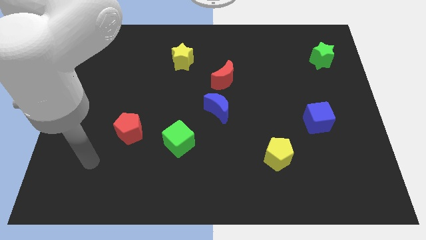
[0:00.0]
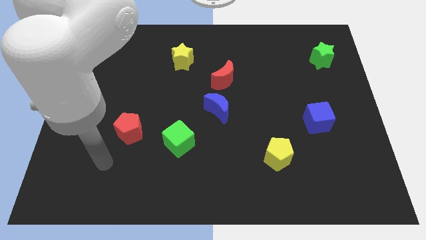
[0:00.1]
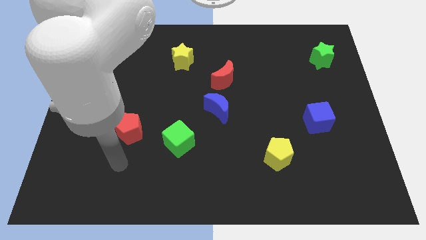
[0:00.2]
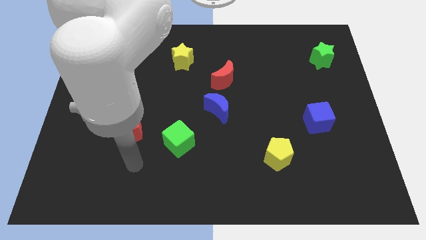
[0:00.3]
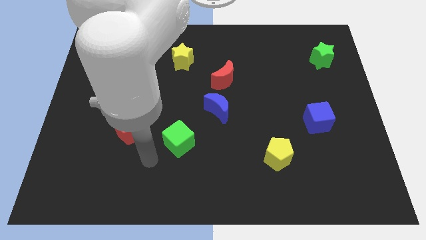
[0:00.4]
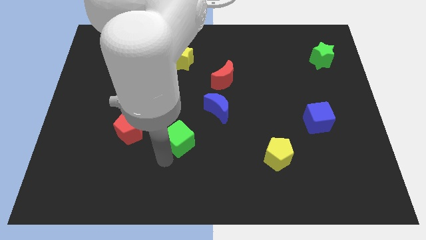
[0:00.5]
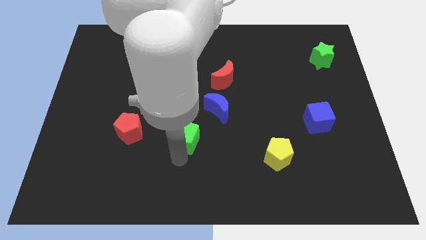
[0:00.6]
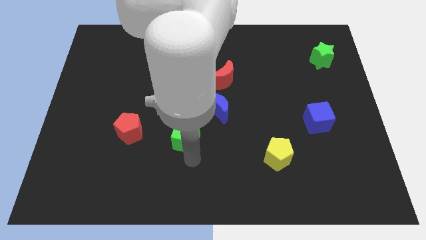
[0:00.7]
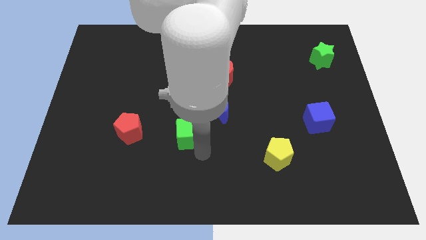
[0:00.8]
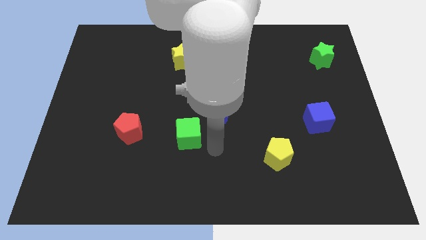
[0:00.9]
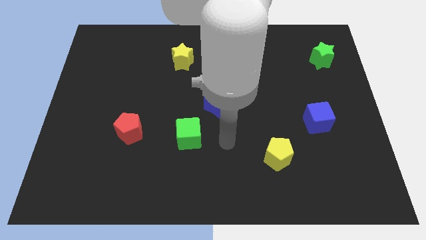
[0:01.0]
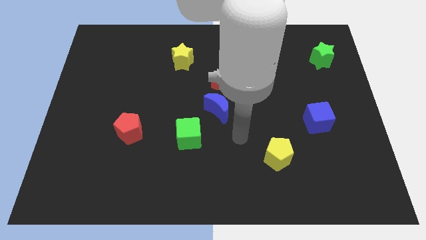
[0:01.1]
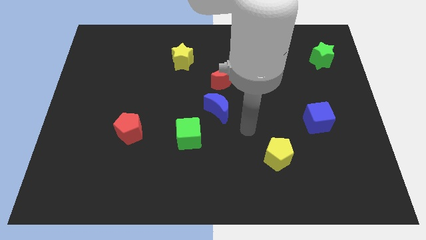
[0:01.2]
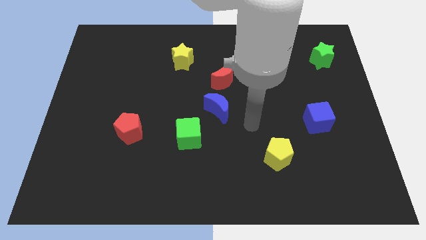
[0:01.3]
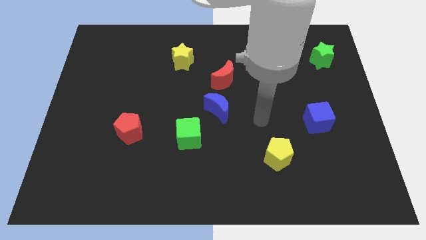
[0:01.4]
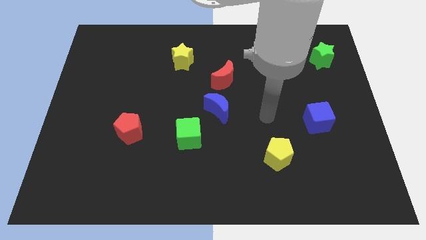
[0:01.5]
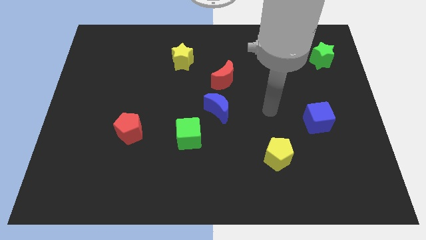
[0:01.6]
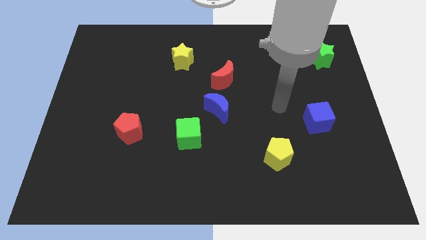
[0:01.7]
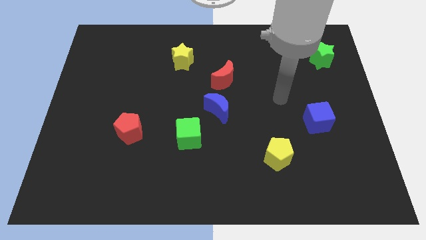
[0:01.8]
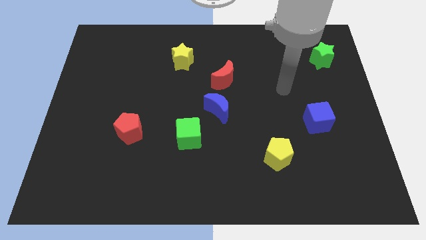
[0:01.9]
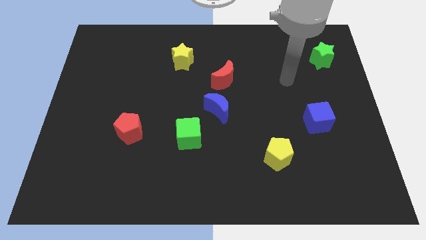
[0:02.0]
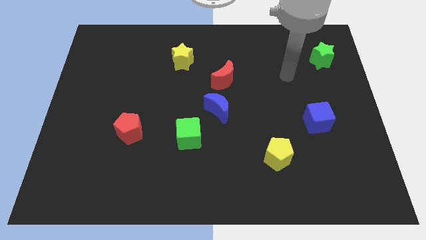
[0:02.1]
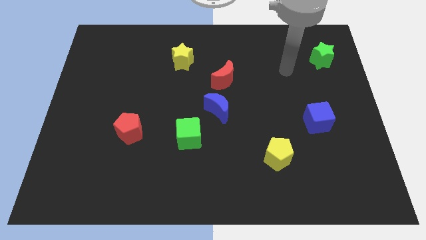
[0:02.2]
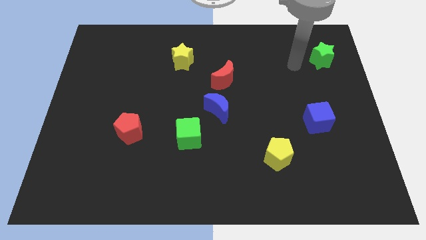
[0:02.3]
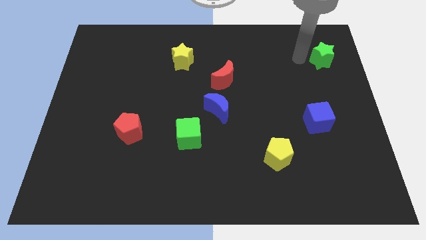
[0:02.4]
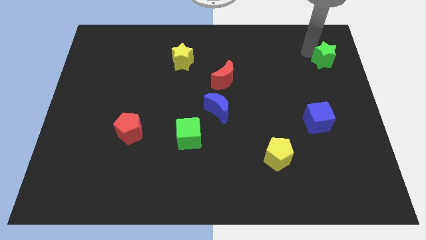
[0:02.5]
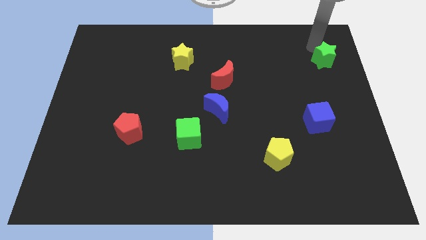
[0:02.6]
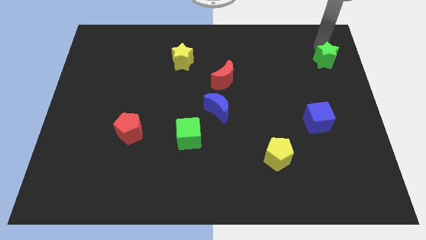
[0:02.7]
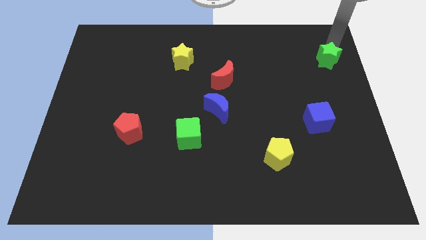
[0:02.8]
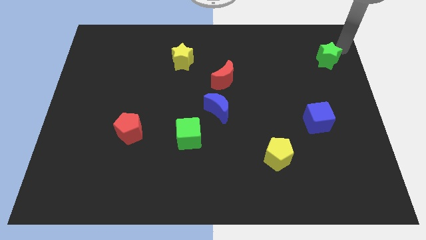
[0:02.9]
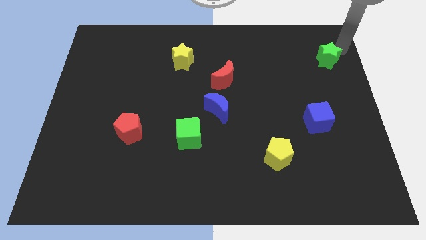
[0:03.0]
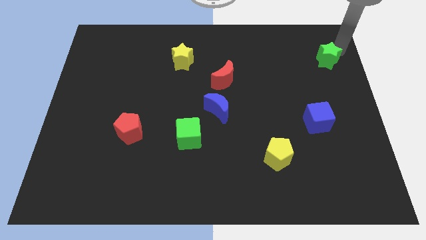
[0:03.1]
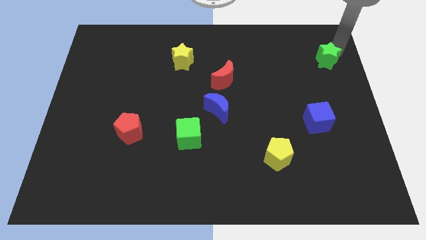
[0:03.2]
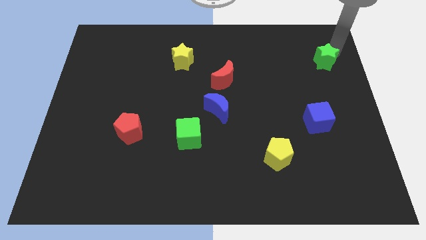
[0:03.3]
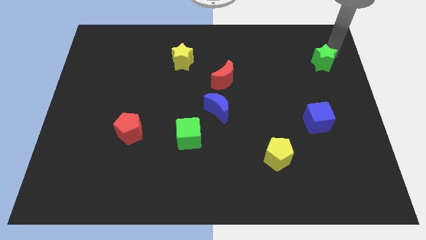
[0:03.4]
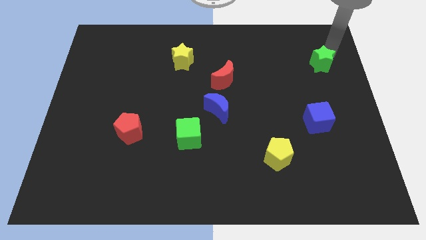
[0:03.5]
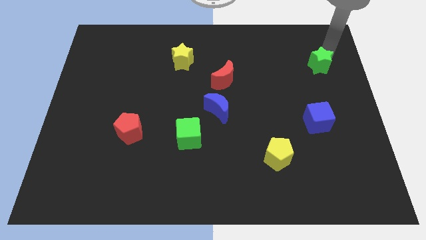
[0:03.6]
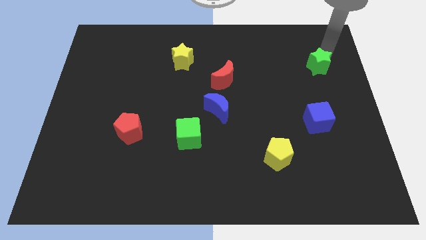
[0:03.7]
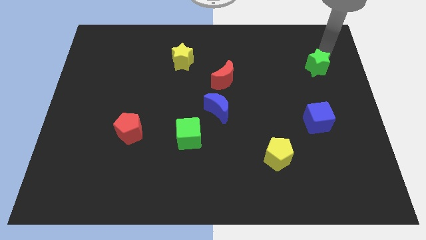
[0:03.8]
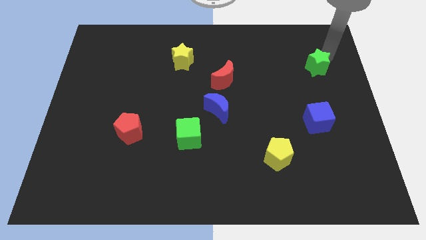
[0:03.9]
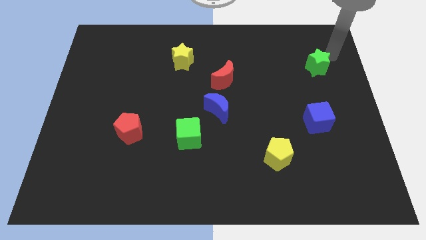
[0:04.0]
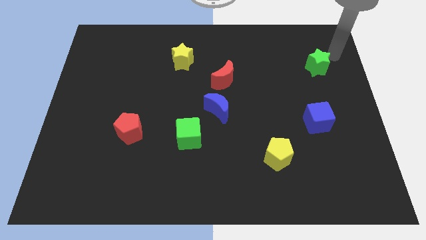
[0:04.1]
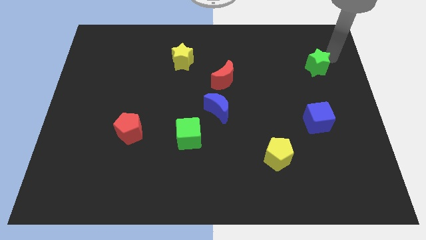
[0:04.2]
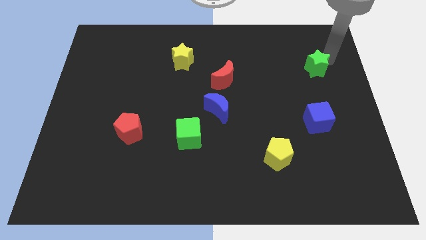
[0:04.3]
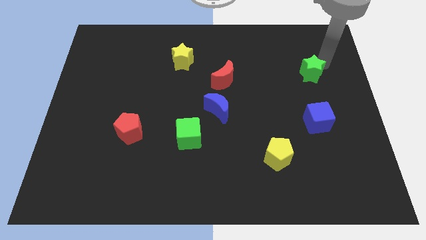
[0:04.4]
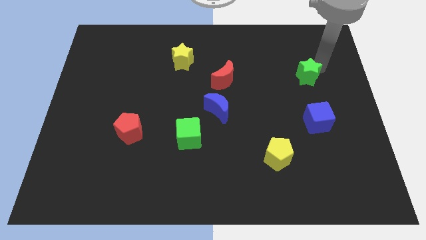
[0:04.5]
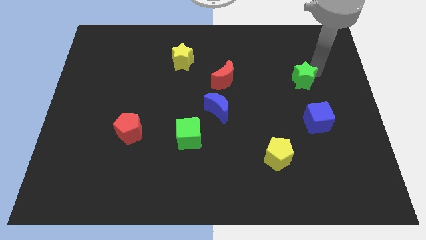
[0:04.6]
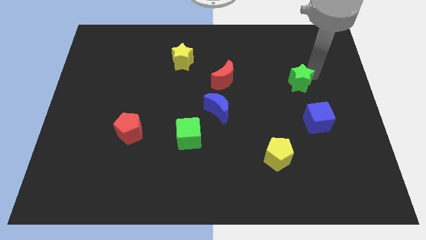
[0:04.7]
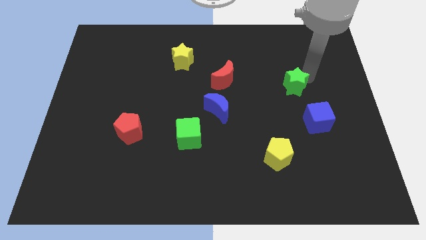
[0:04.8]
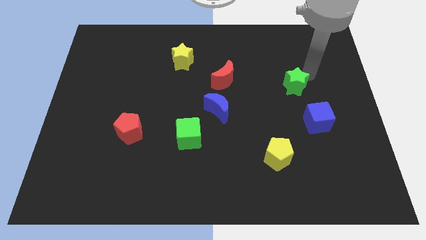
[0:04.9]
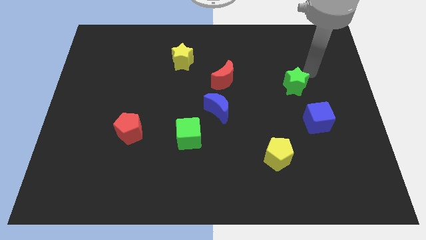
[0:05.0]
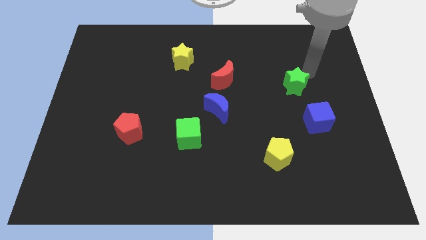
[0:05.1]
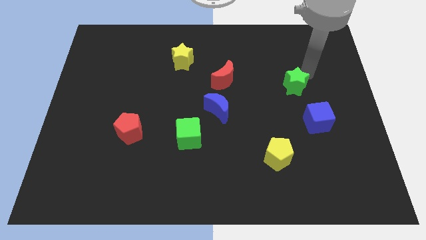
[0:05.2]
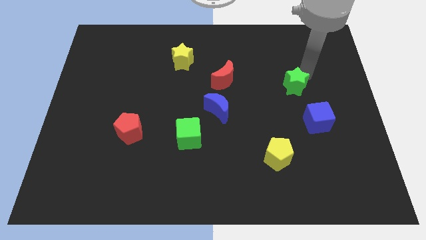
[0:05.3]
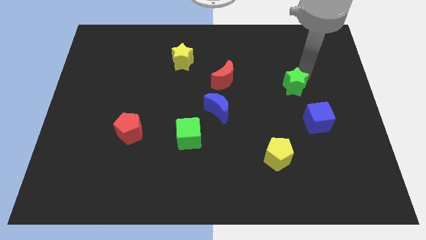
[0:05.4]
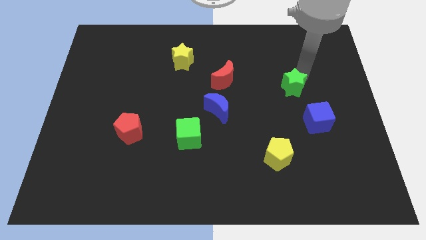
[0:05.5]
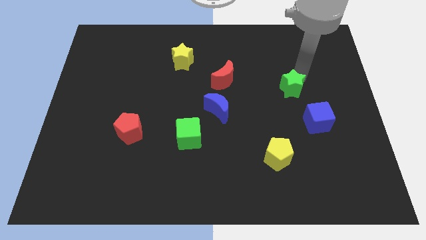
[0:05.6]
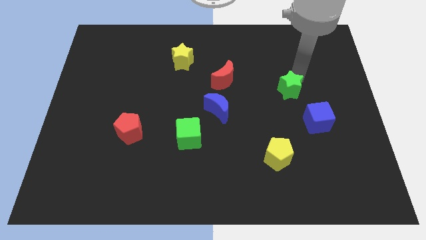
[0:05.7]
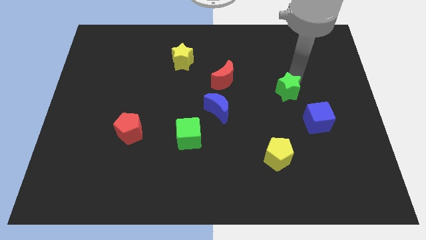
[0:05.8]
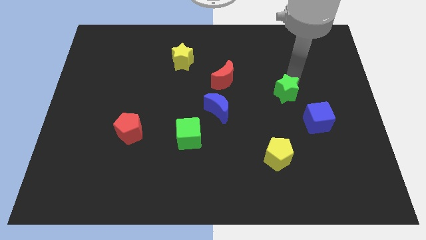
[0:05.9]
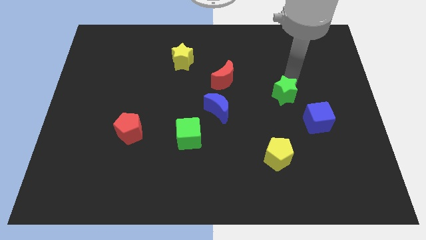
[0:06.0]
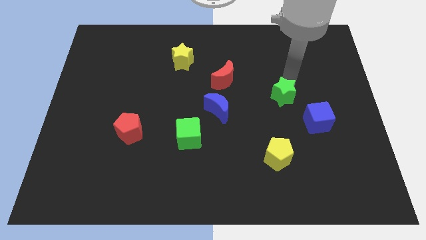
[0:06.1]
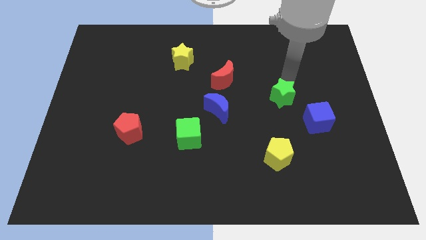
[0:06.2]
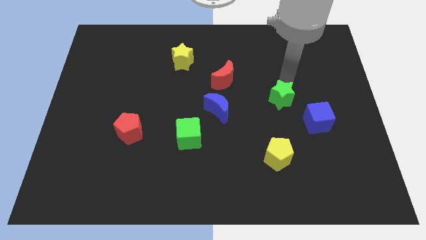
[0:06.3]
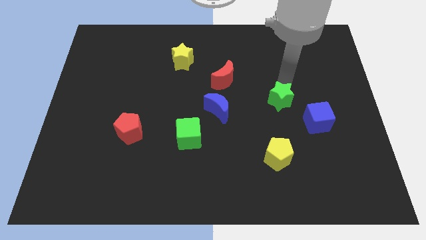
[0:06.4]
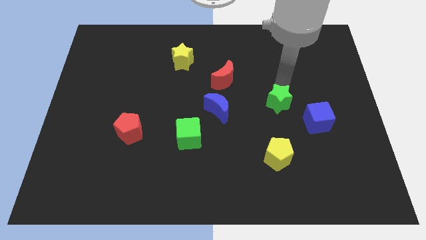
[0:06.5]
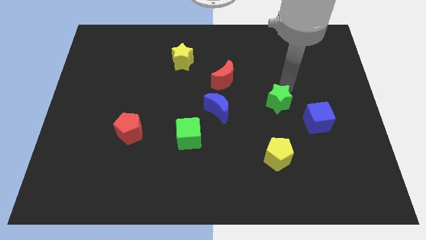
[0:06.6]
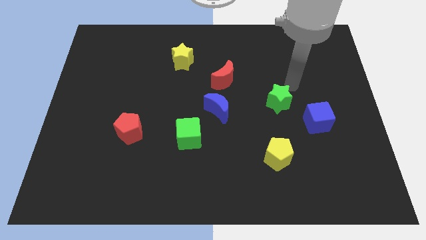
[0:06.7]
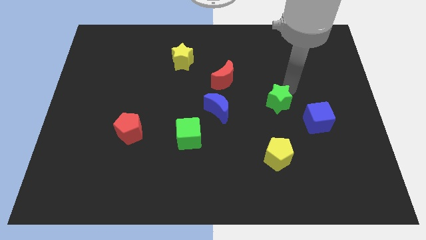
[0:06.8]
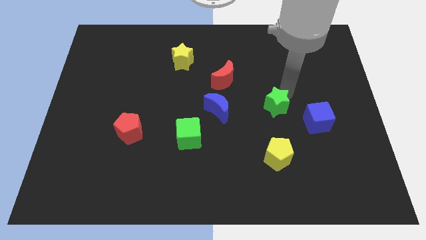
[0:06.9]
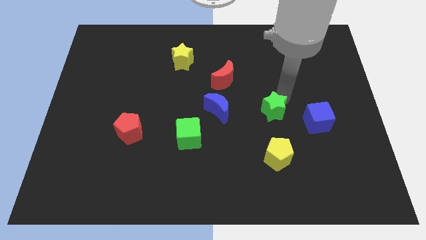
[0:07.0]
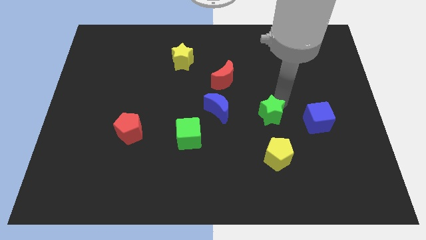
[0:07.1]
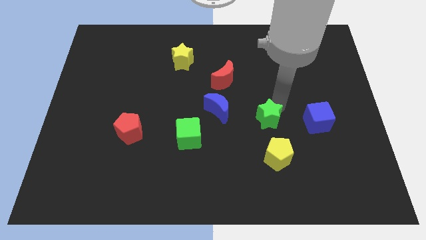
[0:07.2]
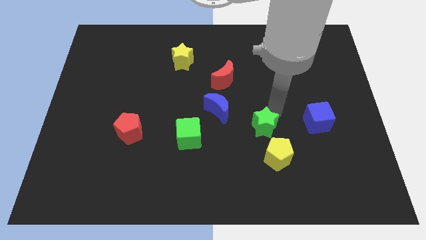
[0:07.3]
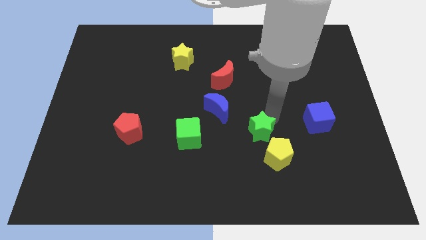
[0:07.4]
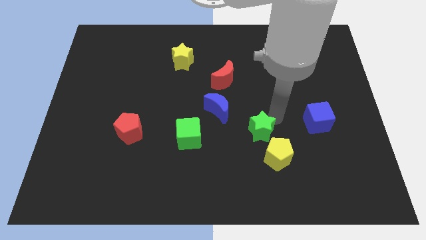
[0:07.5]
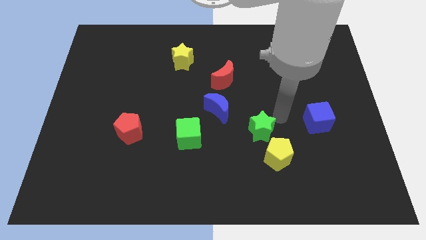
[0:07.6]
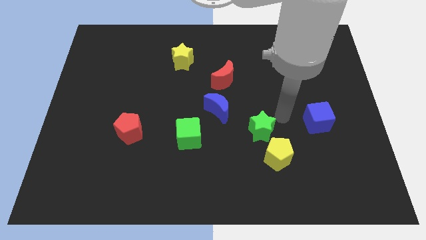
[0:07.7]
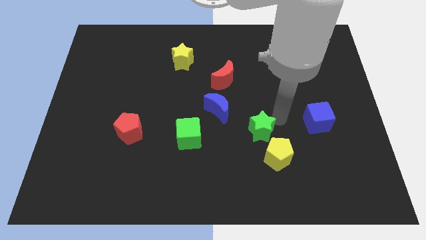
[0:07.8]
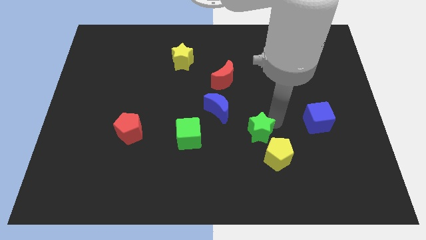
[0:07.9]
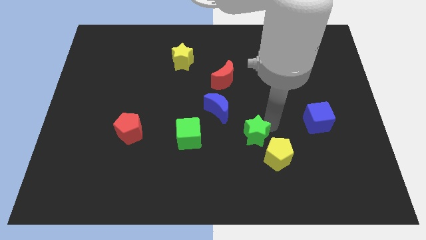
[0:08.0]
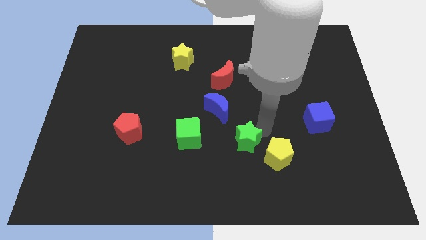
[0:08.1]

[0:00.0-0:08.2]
move the green star left of the yellow pentagon
